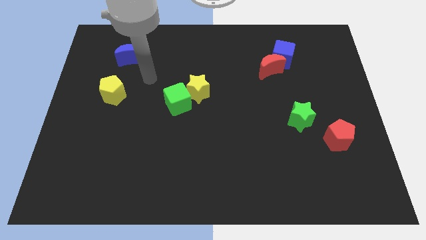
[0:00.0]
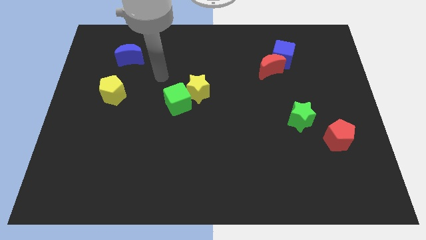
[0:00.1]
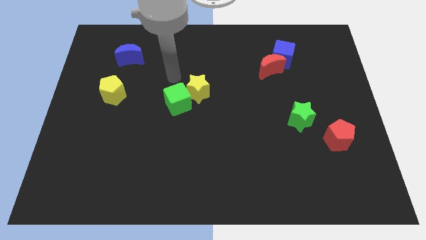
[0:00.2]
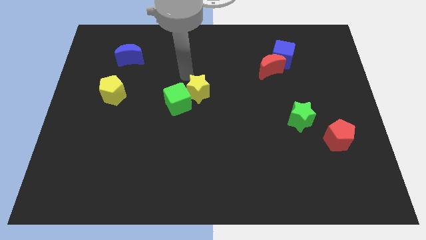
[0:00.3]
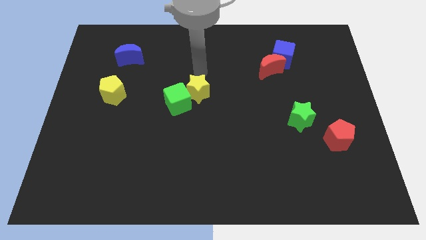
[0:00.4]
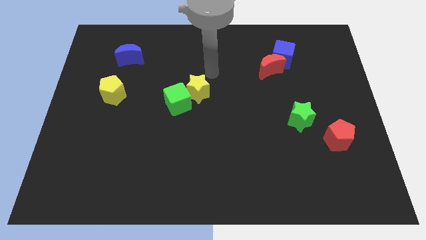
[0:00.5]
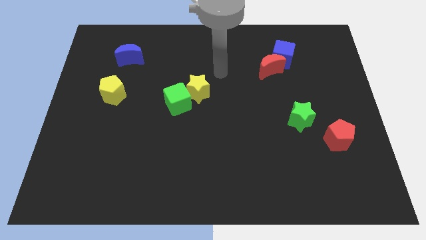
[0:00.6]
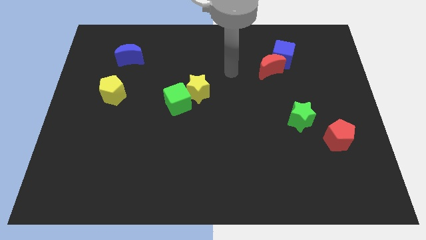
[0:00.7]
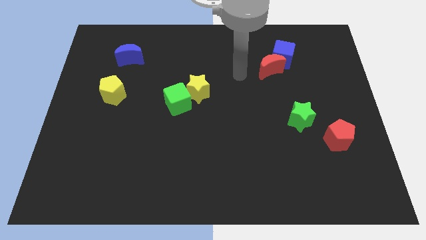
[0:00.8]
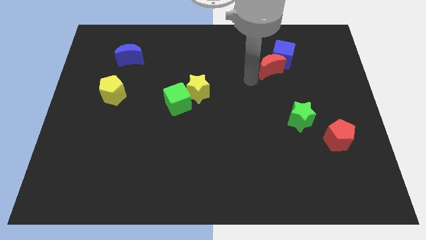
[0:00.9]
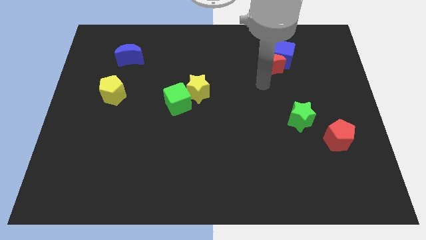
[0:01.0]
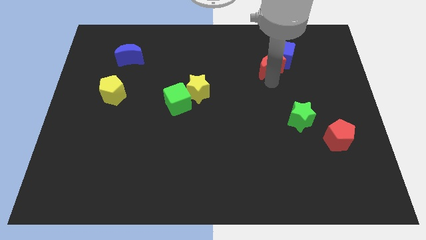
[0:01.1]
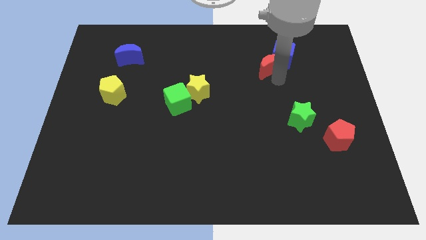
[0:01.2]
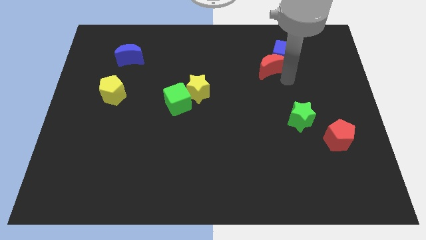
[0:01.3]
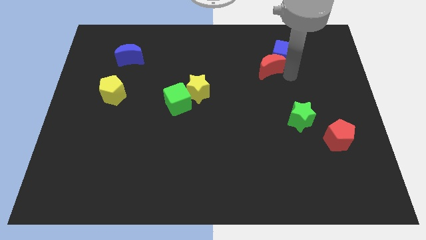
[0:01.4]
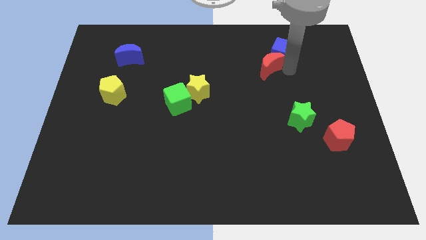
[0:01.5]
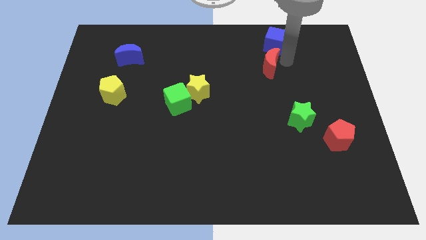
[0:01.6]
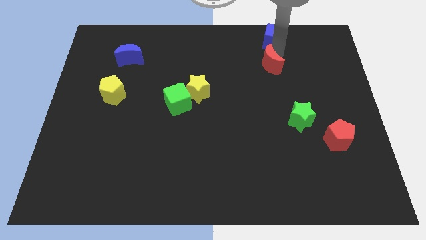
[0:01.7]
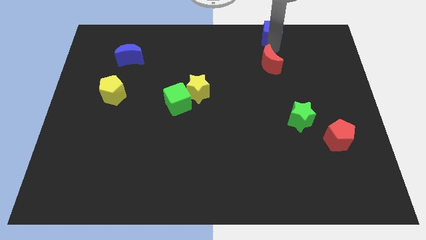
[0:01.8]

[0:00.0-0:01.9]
pull the red moon apart from the blue cube

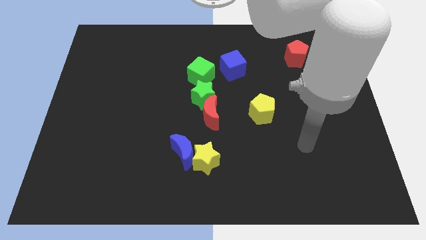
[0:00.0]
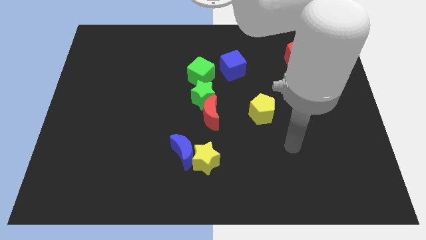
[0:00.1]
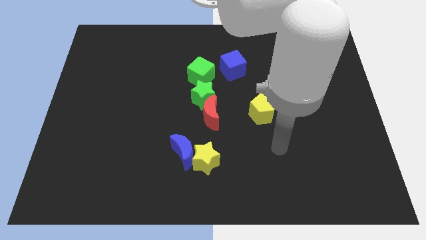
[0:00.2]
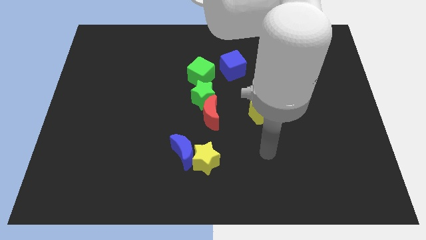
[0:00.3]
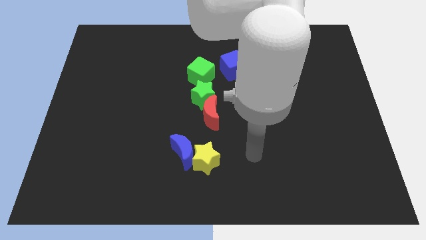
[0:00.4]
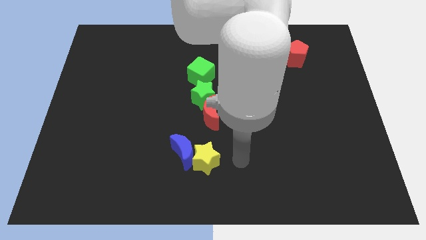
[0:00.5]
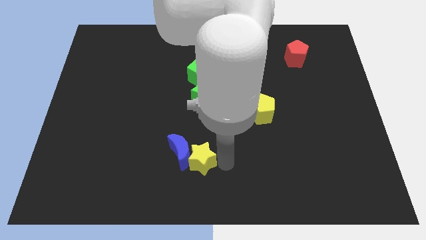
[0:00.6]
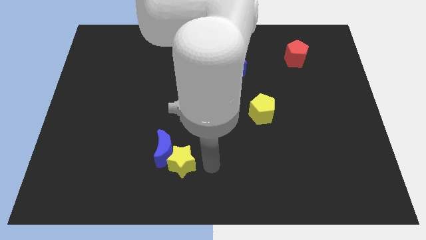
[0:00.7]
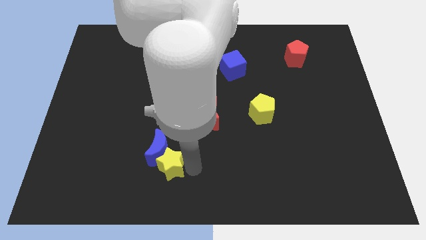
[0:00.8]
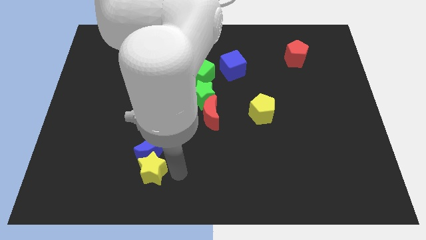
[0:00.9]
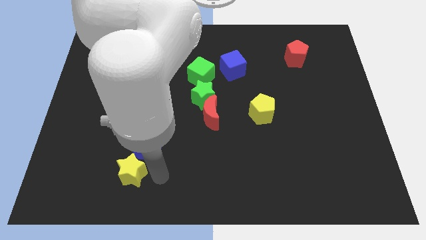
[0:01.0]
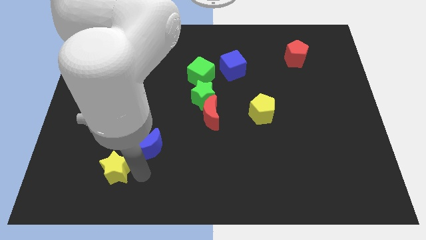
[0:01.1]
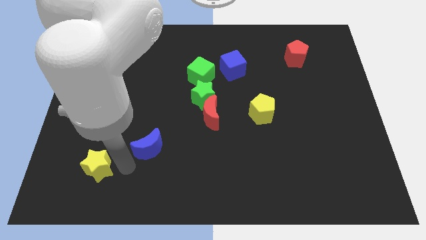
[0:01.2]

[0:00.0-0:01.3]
pull the blue moon apart from the yellow star

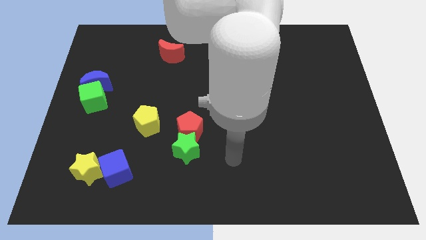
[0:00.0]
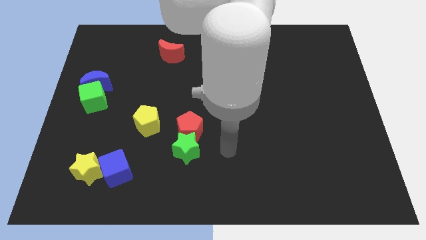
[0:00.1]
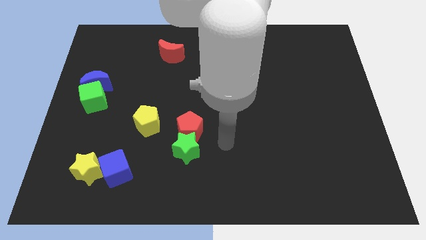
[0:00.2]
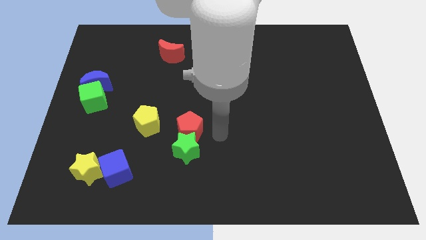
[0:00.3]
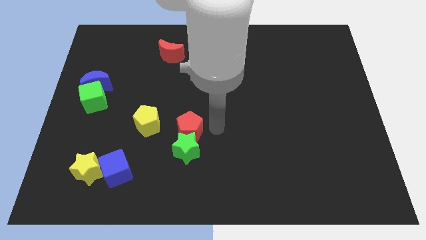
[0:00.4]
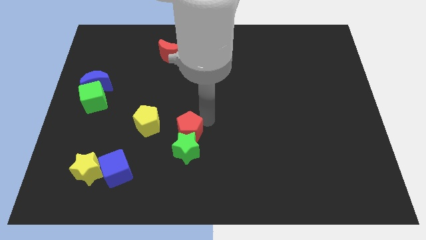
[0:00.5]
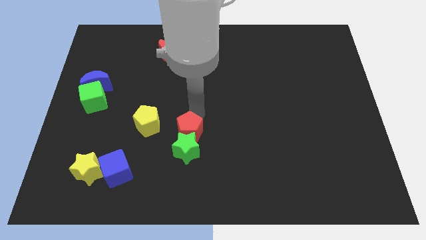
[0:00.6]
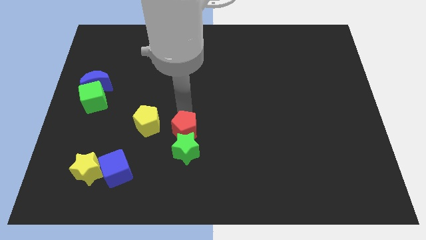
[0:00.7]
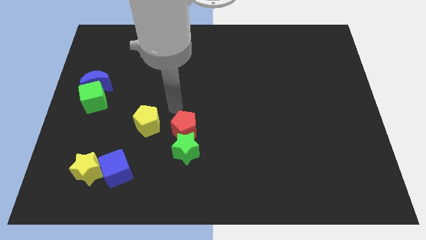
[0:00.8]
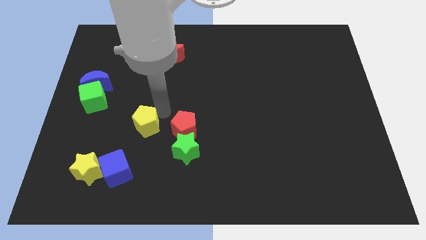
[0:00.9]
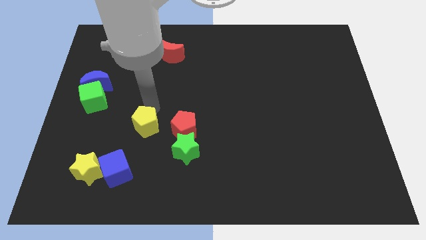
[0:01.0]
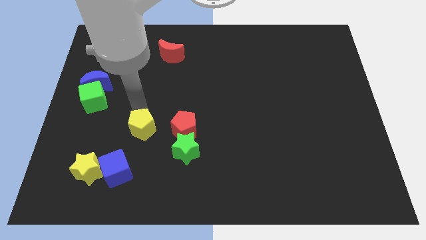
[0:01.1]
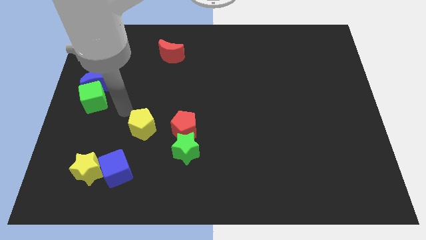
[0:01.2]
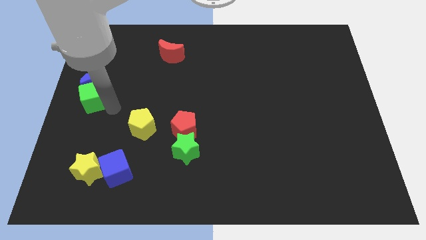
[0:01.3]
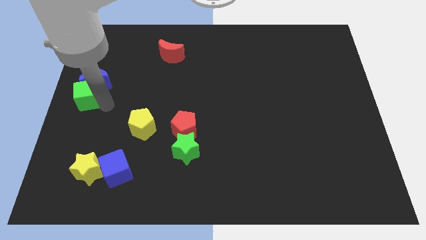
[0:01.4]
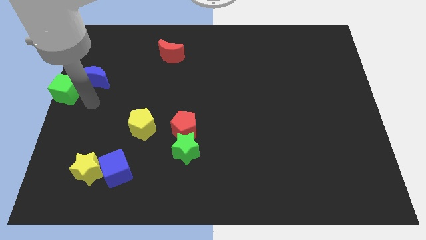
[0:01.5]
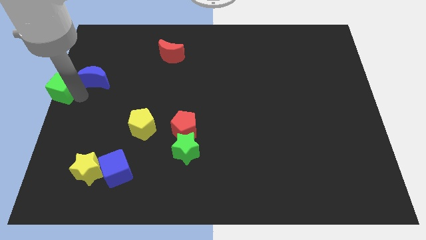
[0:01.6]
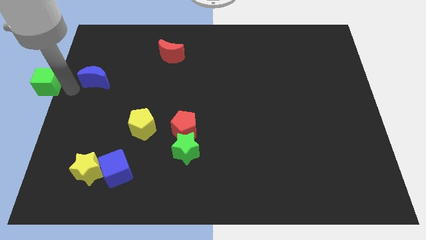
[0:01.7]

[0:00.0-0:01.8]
move the blue moon away from the green cube

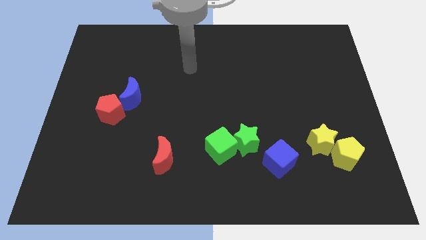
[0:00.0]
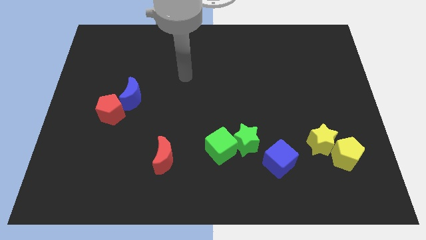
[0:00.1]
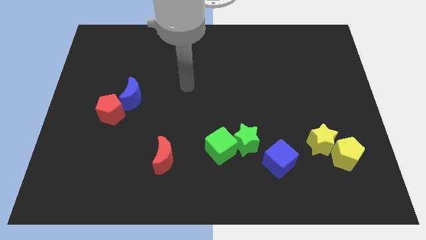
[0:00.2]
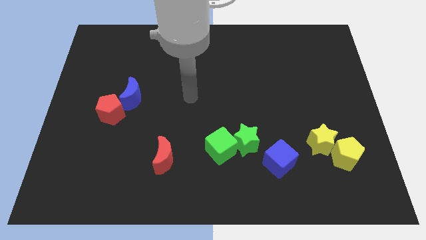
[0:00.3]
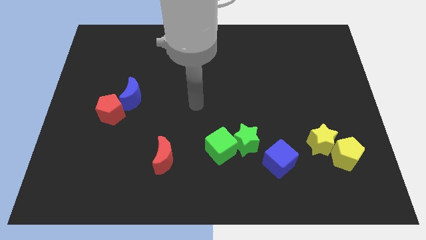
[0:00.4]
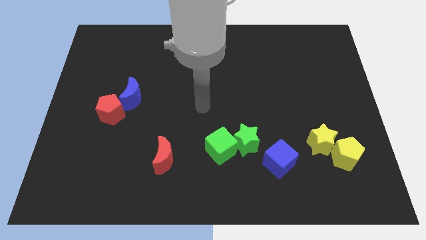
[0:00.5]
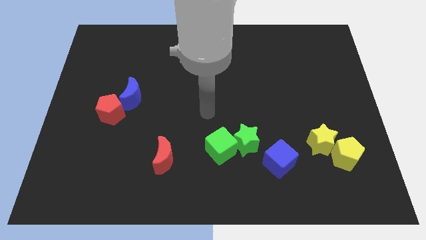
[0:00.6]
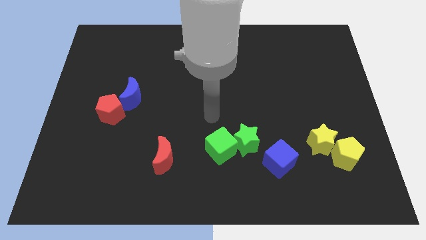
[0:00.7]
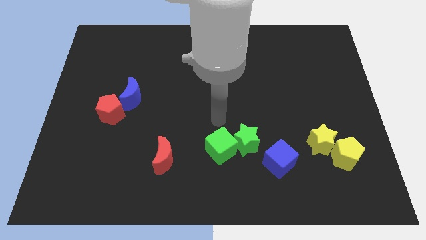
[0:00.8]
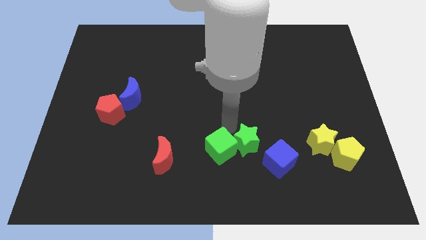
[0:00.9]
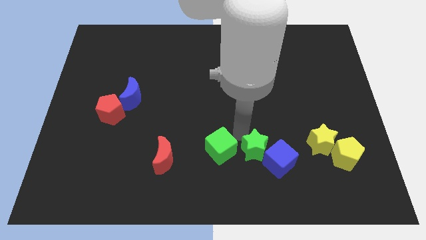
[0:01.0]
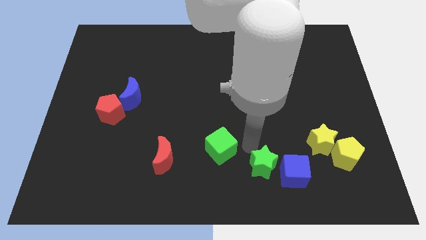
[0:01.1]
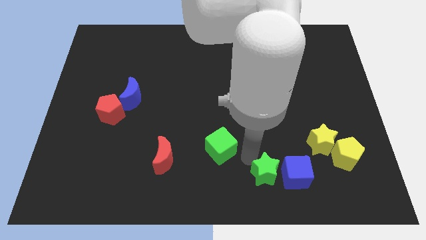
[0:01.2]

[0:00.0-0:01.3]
separate the green cube from the green star

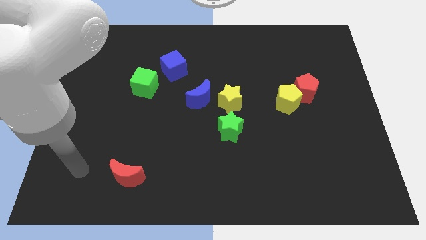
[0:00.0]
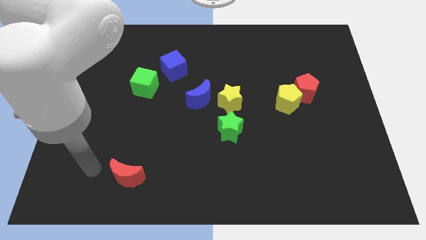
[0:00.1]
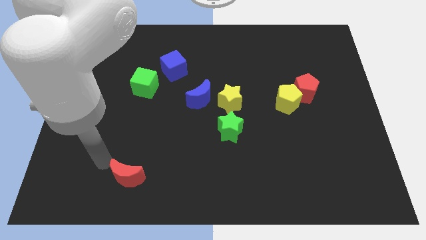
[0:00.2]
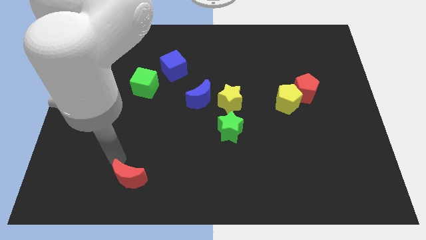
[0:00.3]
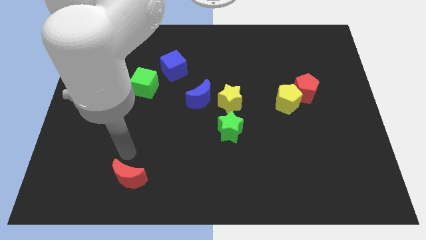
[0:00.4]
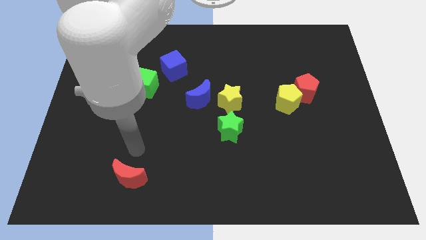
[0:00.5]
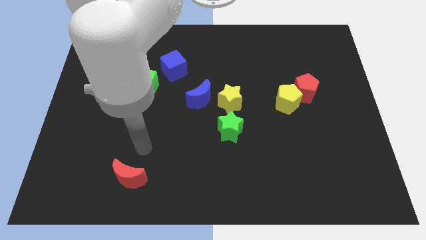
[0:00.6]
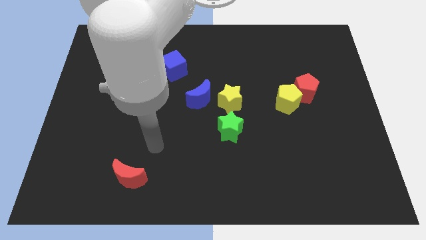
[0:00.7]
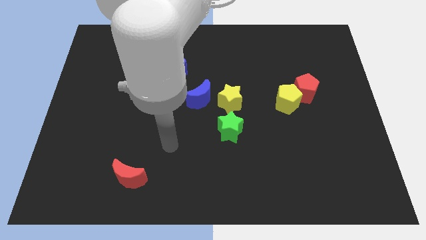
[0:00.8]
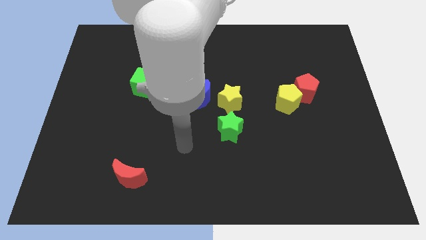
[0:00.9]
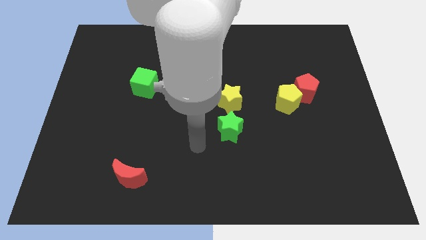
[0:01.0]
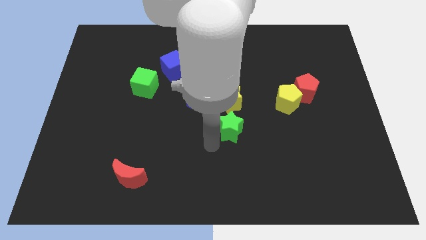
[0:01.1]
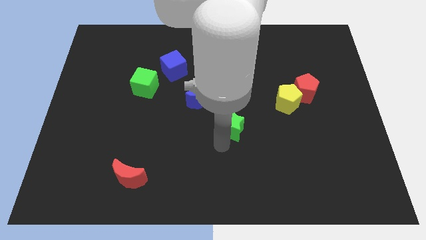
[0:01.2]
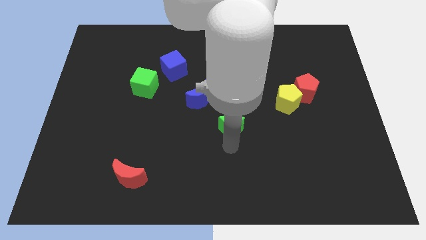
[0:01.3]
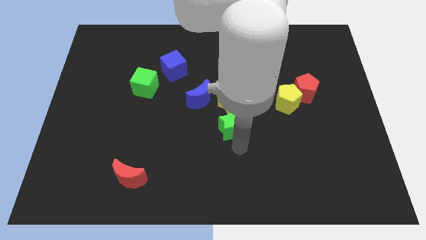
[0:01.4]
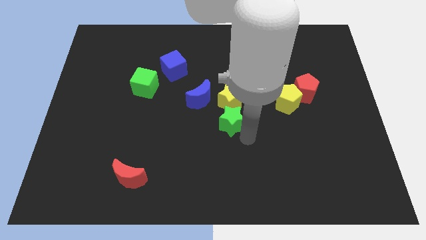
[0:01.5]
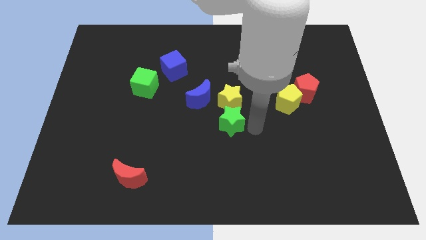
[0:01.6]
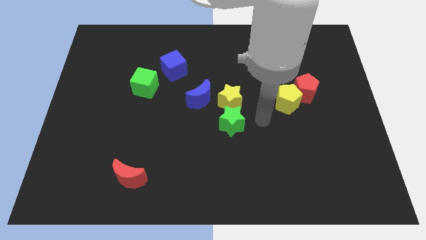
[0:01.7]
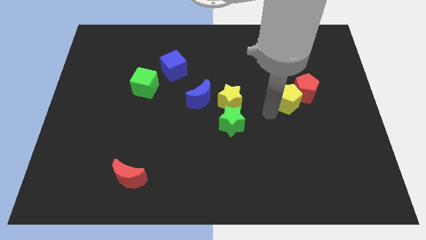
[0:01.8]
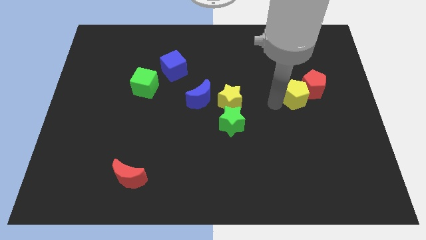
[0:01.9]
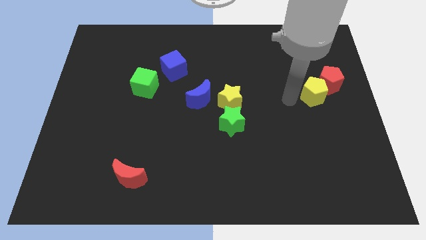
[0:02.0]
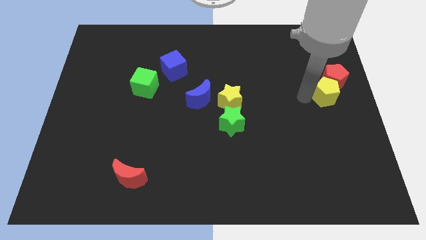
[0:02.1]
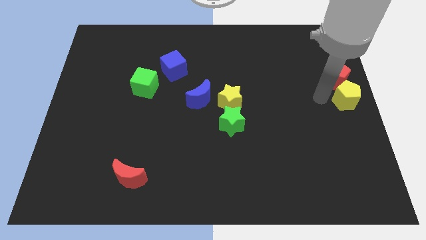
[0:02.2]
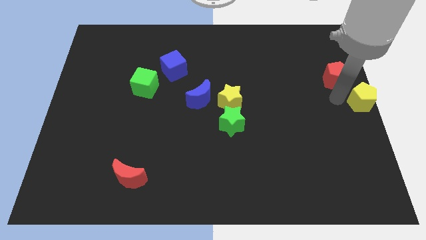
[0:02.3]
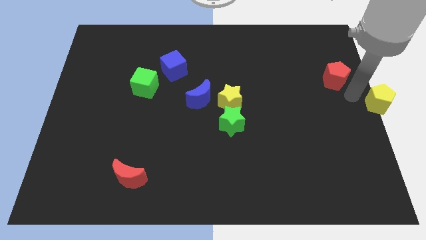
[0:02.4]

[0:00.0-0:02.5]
move the red pentagon away from the yellow pentagon

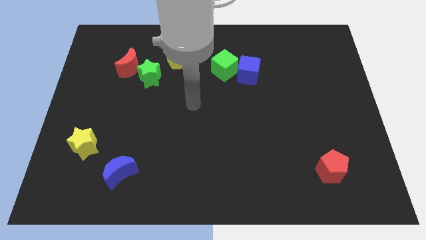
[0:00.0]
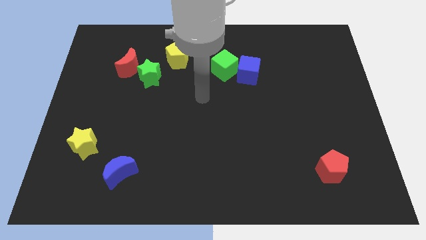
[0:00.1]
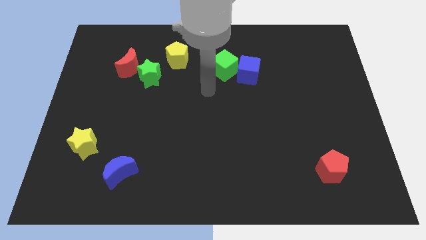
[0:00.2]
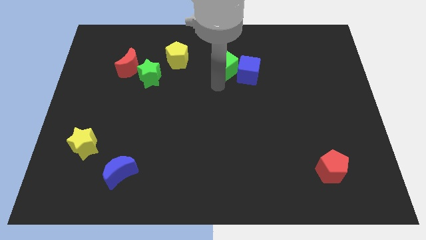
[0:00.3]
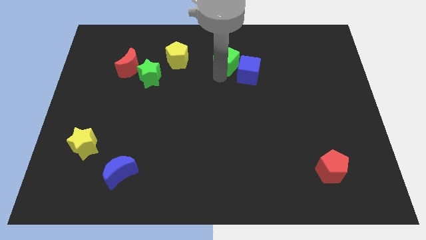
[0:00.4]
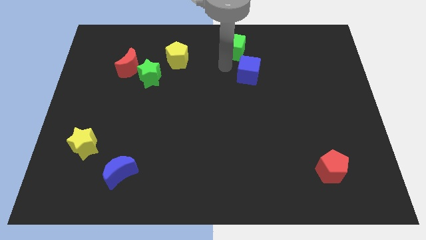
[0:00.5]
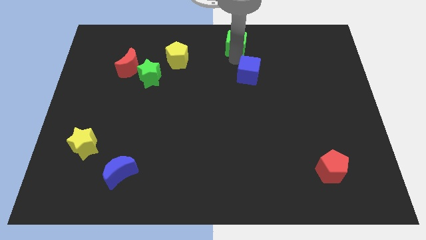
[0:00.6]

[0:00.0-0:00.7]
move the blue cube away from the green cube

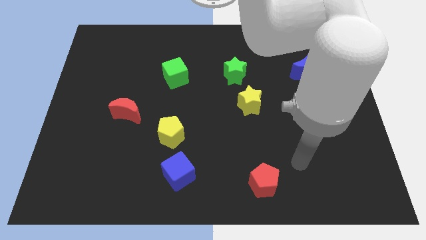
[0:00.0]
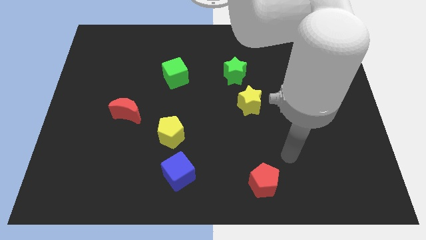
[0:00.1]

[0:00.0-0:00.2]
pull the green star apart from the yellow star
